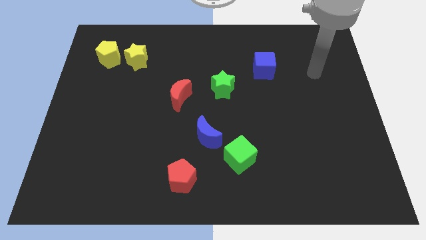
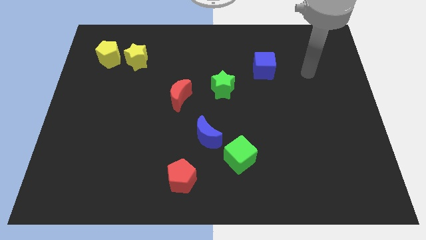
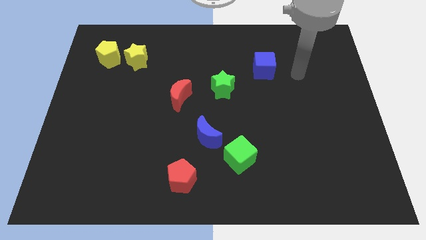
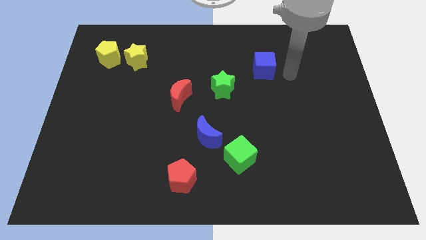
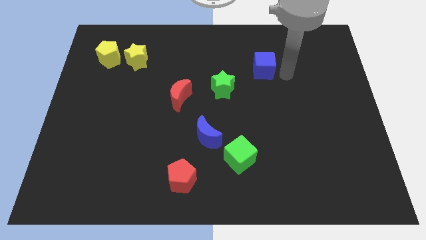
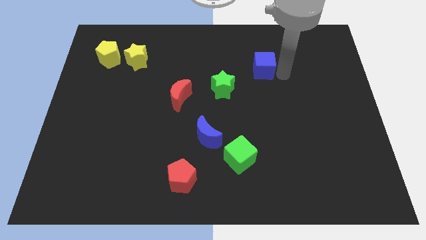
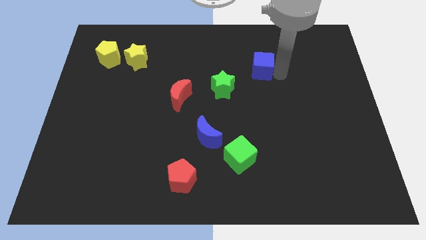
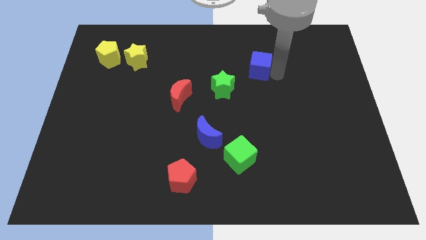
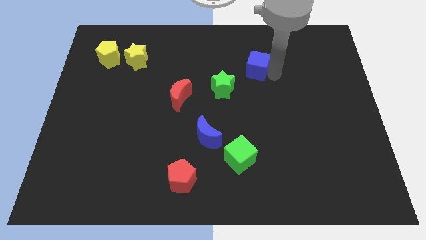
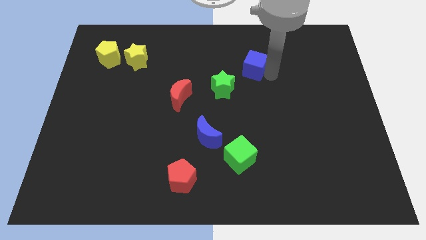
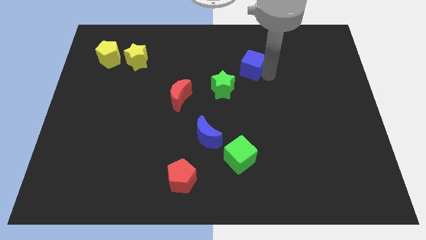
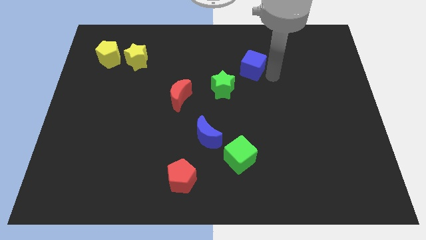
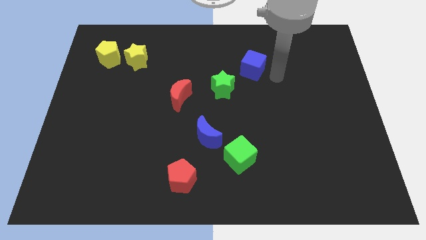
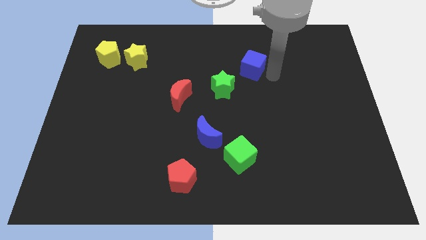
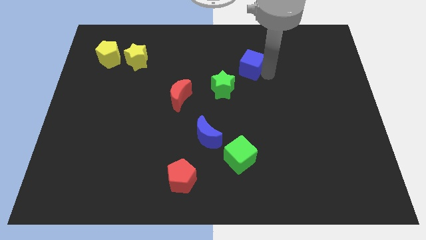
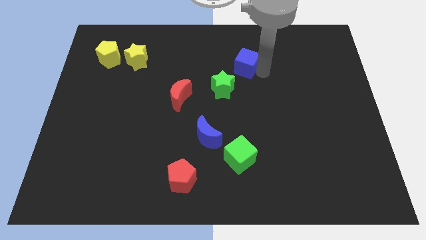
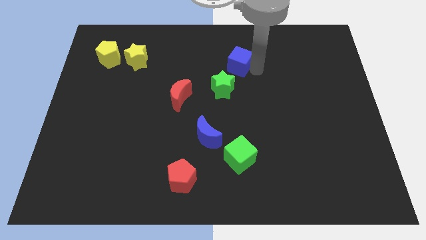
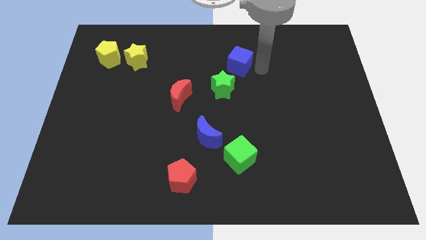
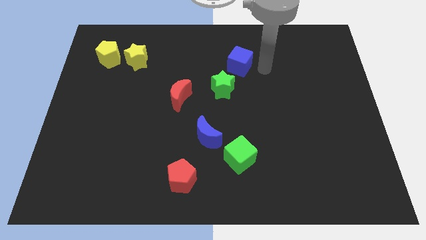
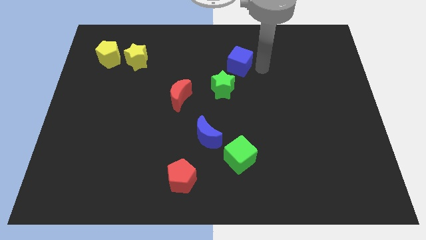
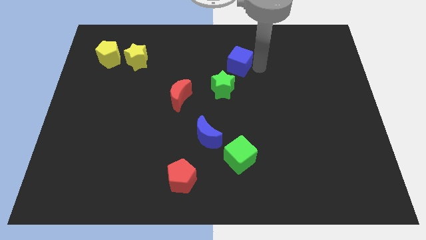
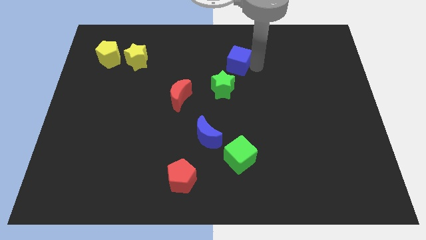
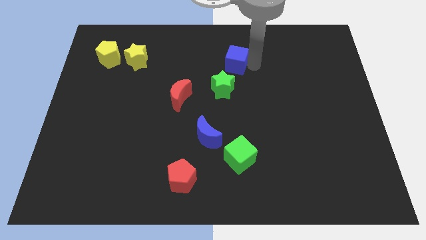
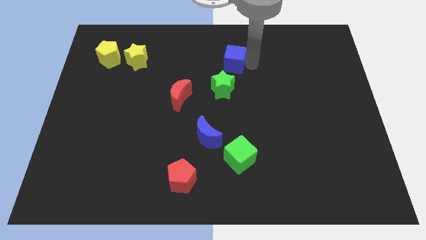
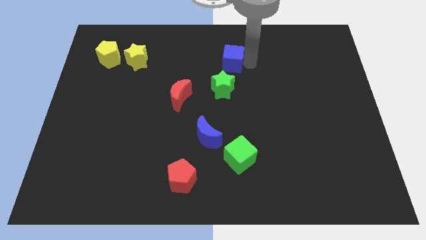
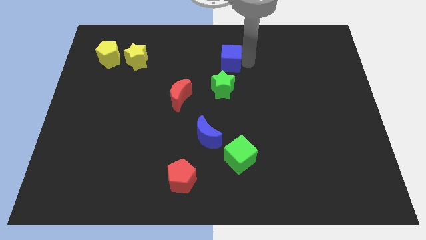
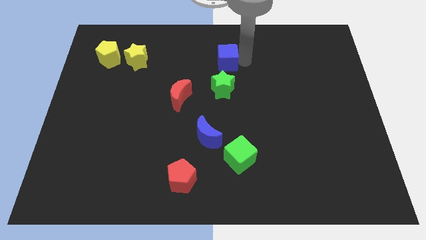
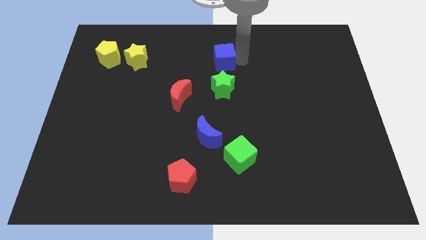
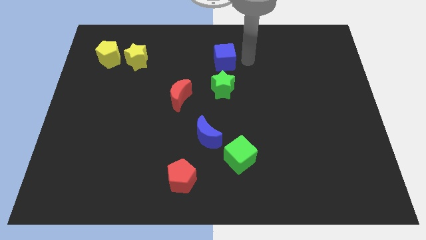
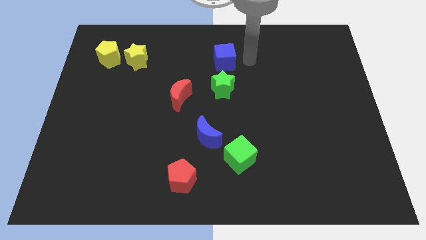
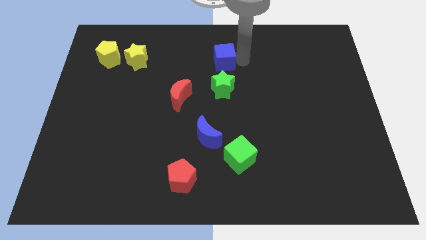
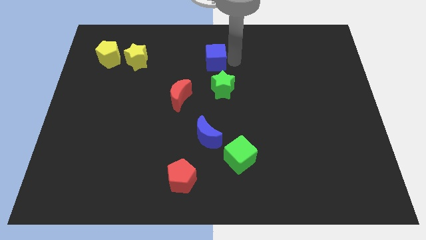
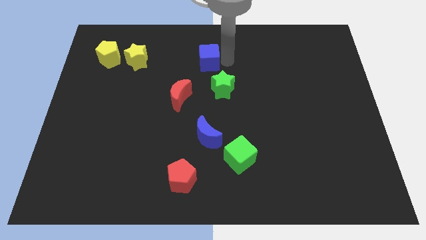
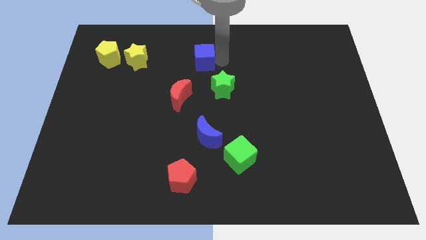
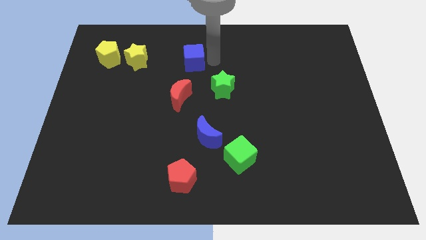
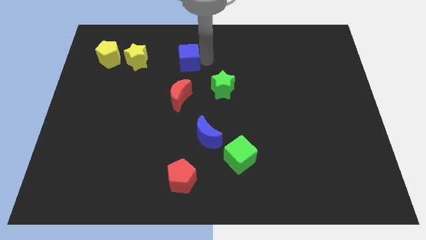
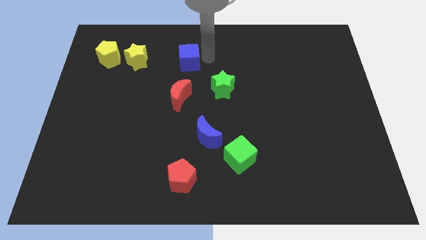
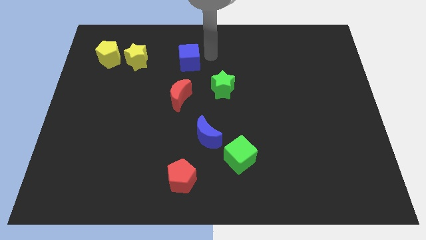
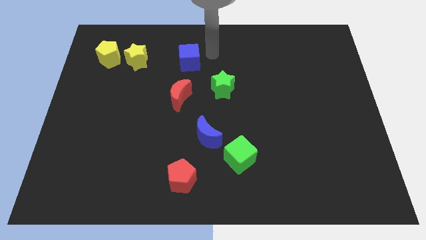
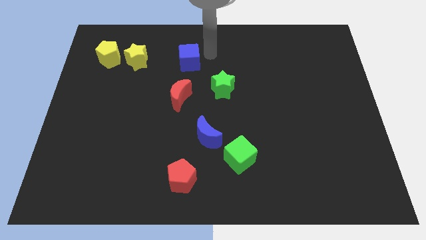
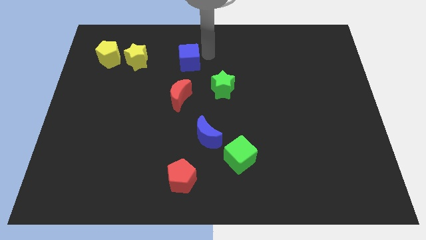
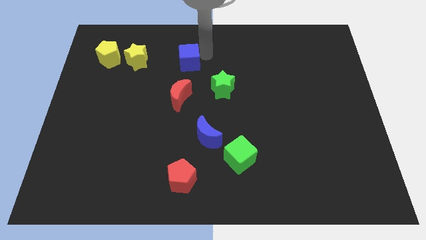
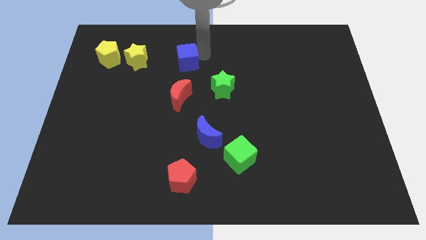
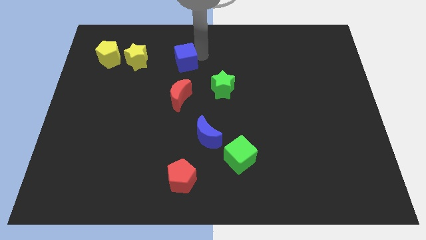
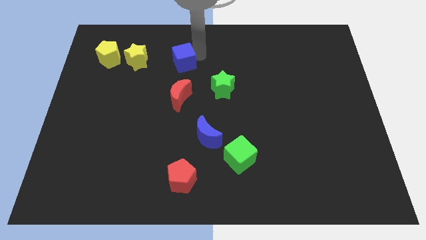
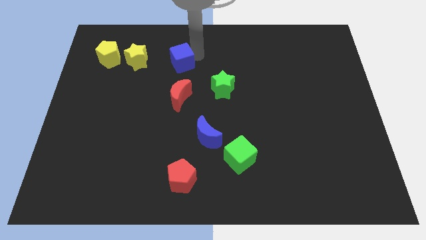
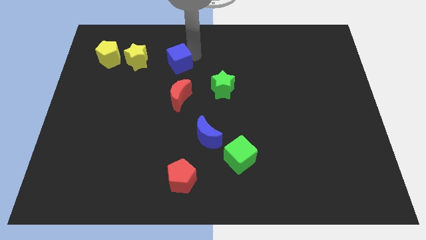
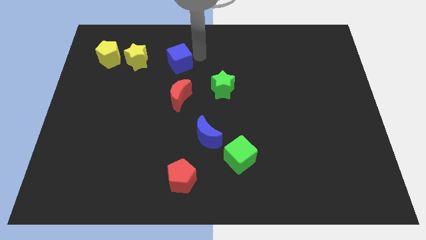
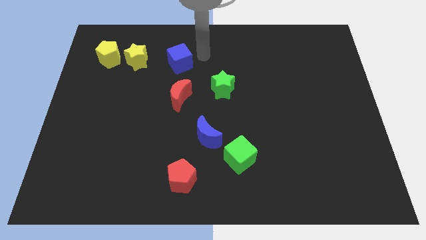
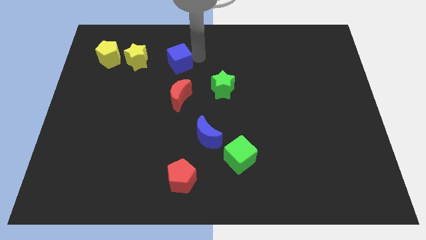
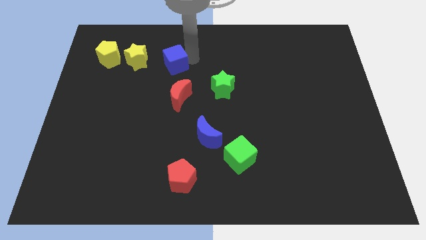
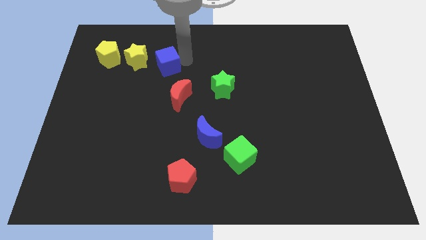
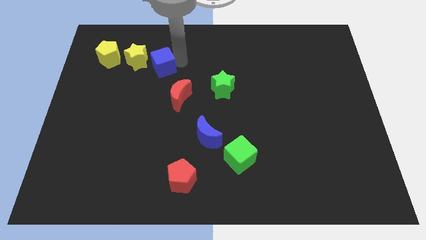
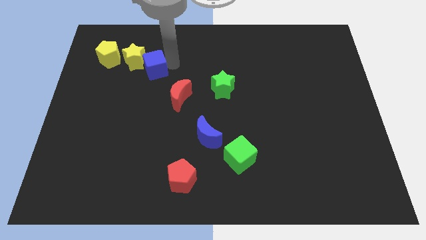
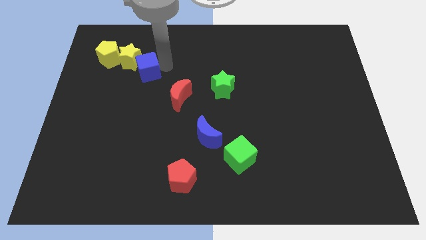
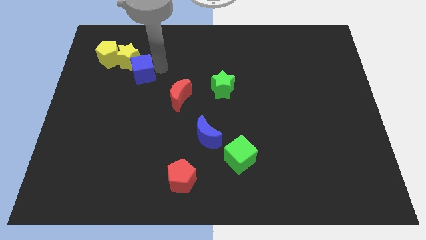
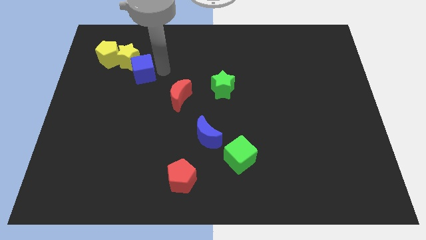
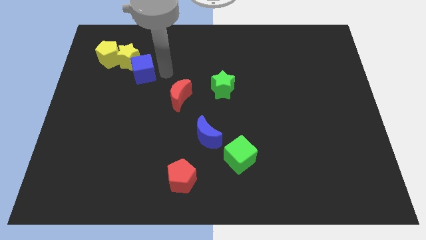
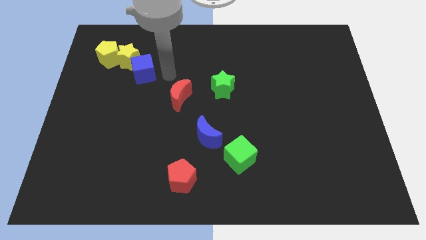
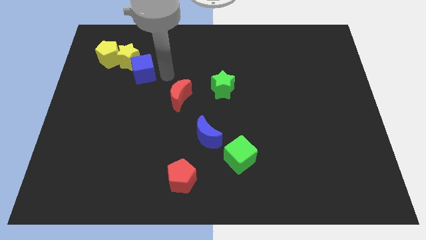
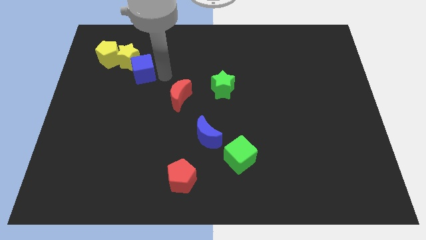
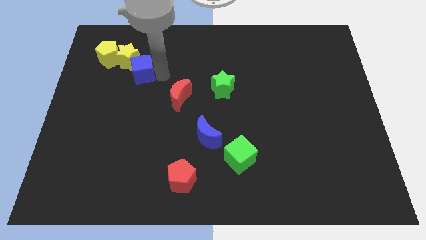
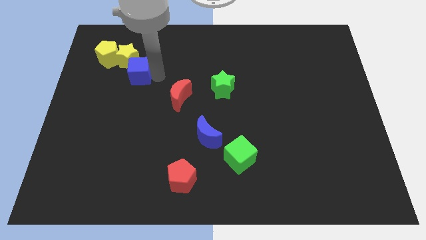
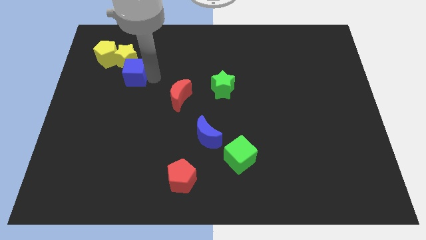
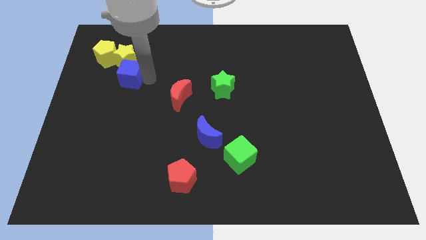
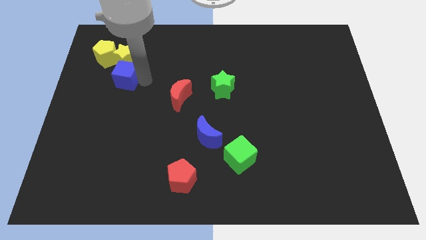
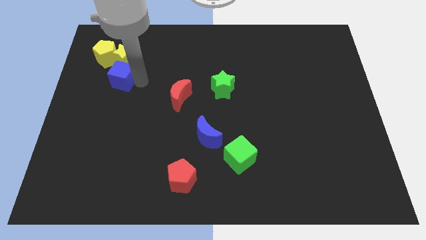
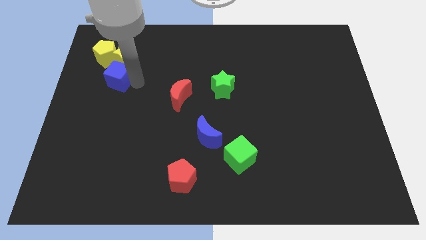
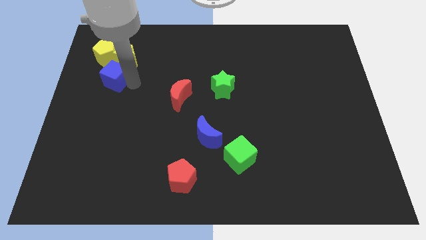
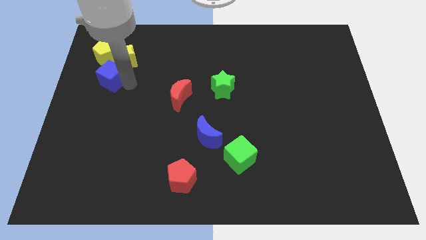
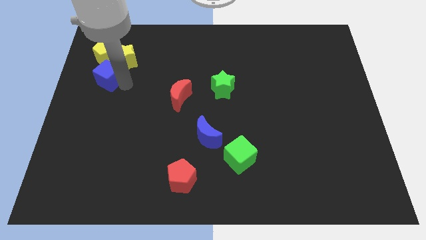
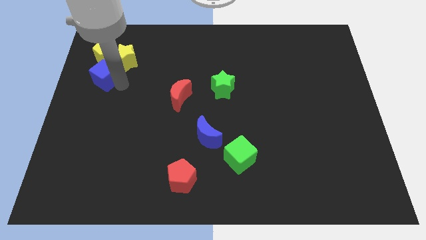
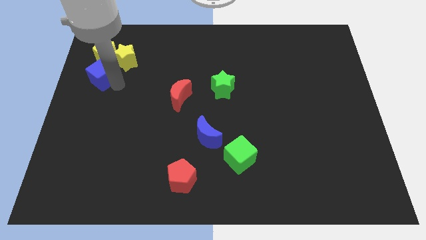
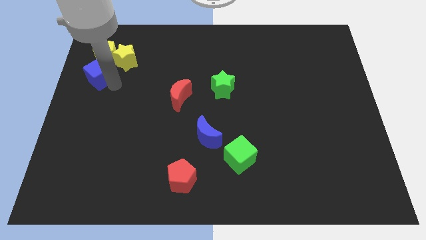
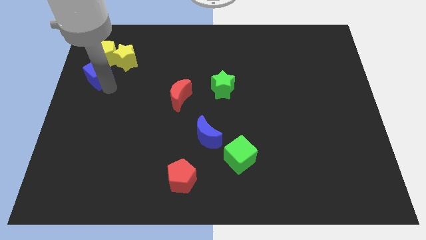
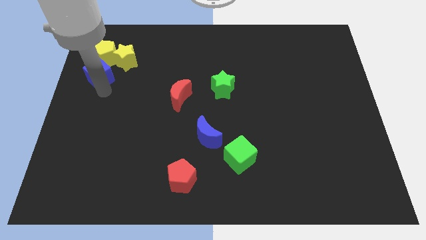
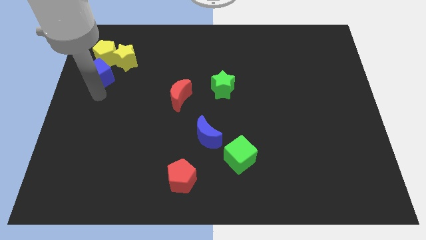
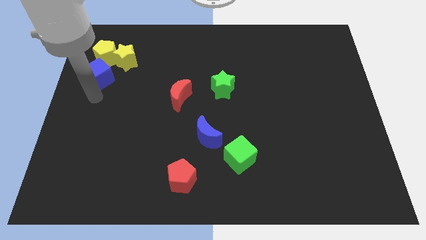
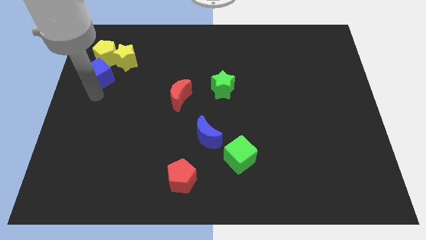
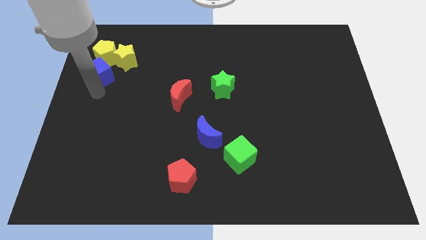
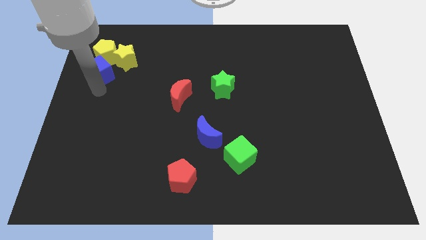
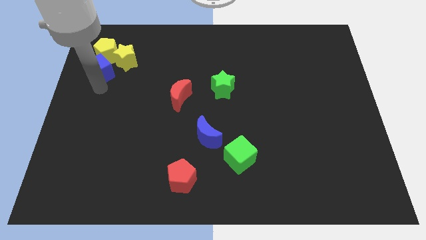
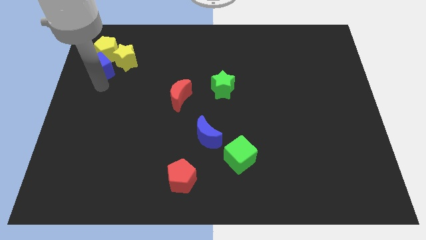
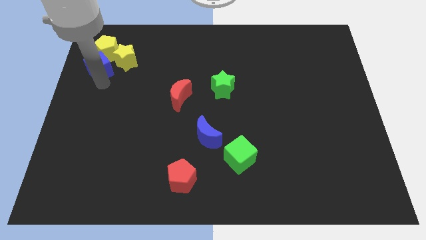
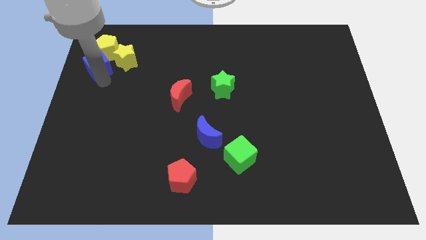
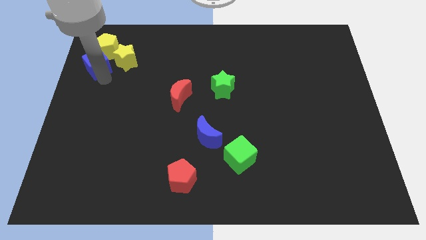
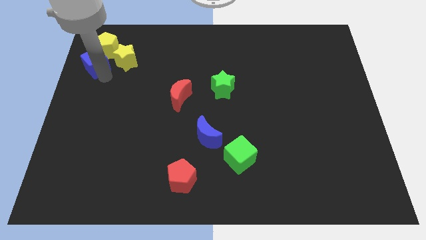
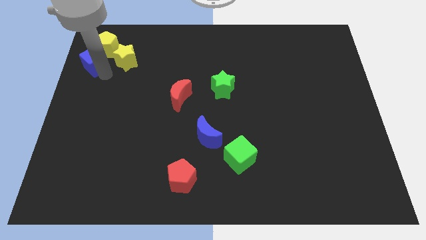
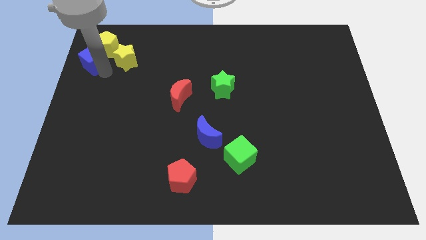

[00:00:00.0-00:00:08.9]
push the blue cube to the yellow pentagon
